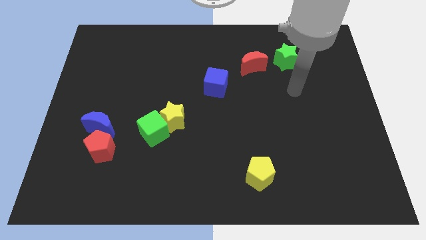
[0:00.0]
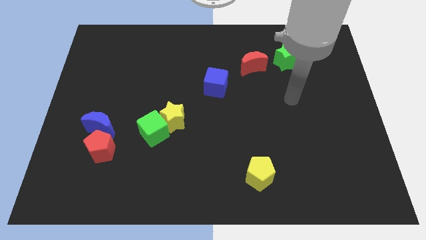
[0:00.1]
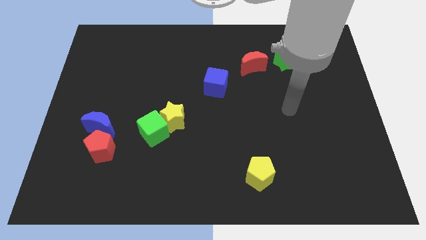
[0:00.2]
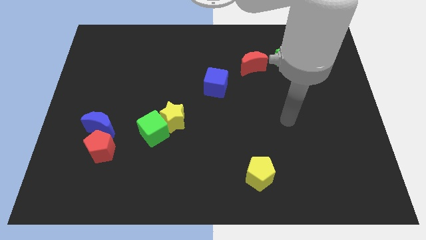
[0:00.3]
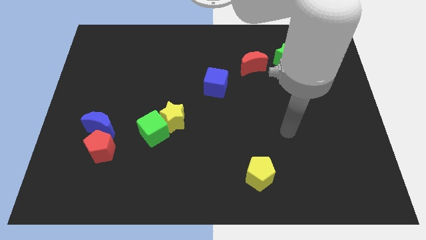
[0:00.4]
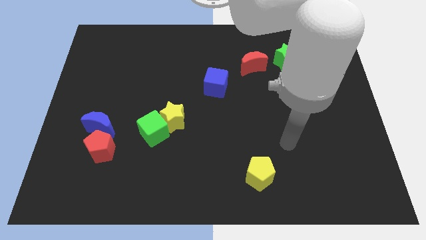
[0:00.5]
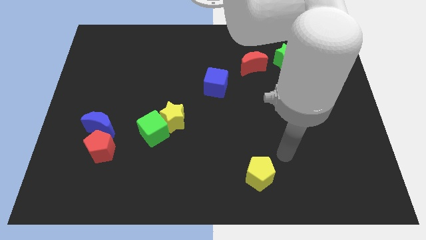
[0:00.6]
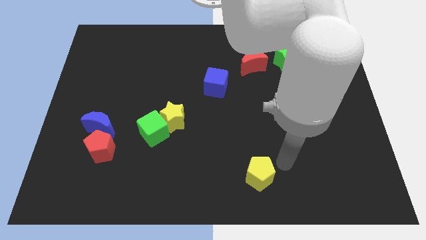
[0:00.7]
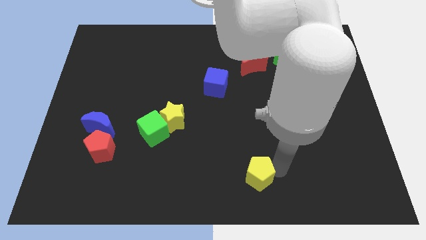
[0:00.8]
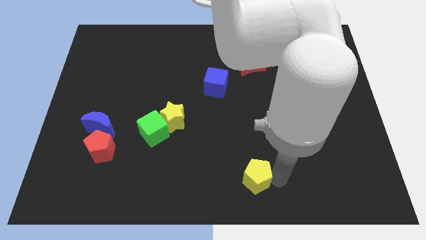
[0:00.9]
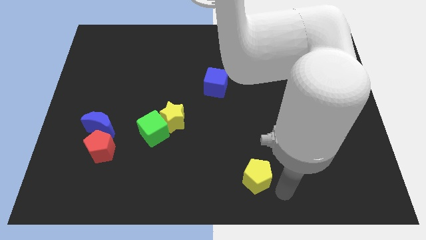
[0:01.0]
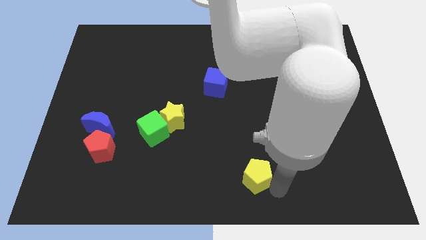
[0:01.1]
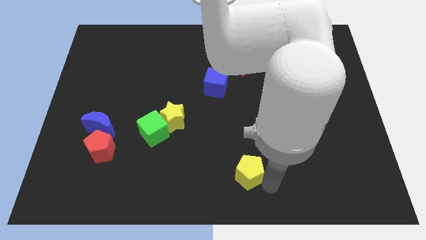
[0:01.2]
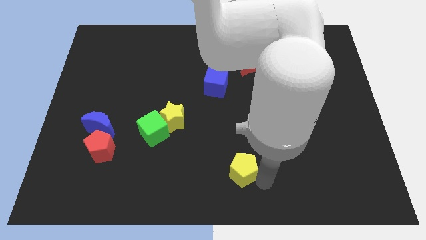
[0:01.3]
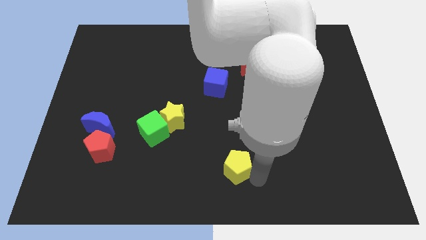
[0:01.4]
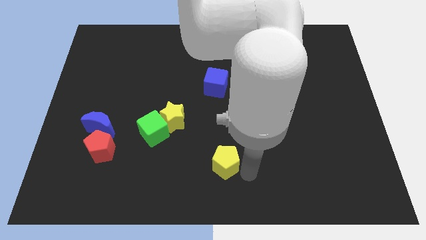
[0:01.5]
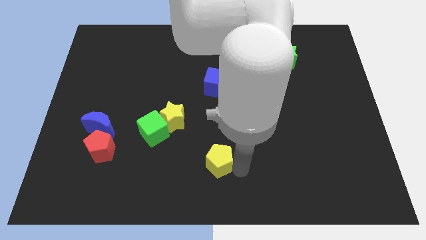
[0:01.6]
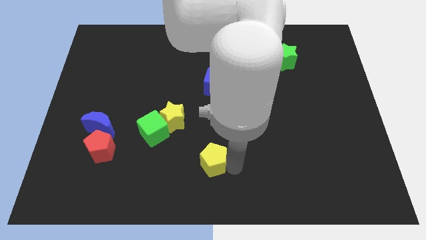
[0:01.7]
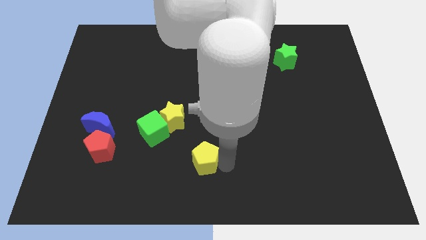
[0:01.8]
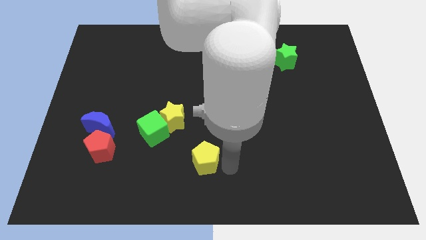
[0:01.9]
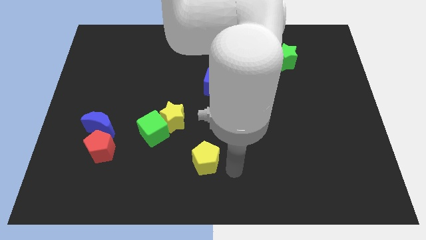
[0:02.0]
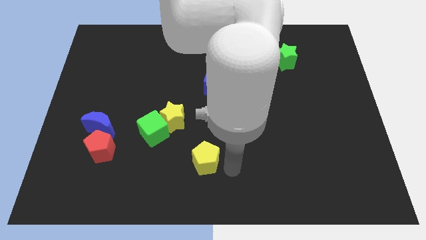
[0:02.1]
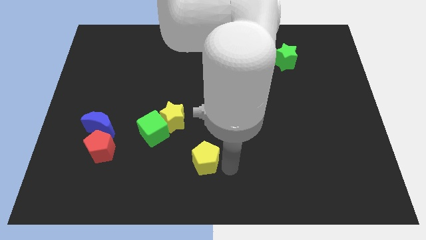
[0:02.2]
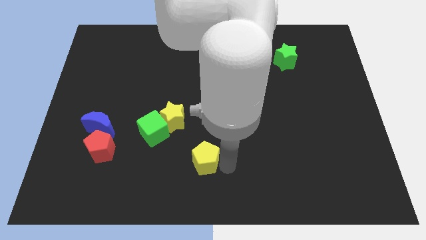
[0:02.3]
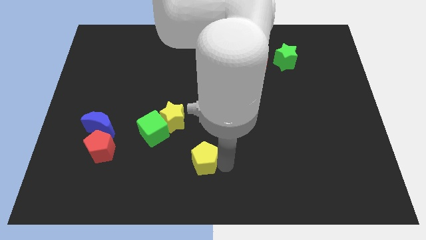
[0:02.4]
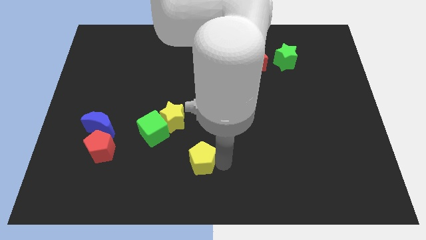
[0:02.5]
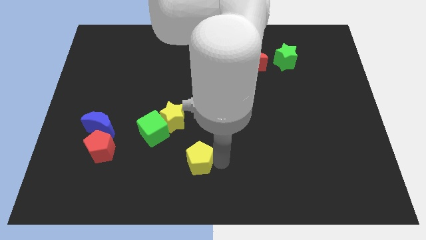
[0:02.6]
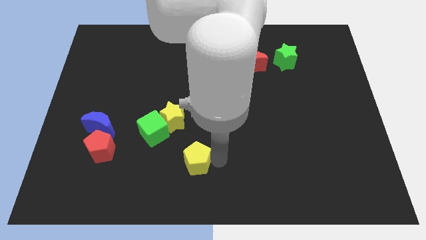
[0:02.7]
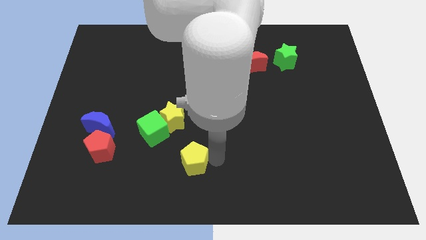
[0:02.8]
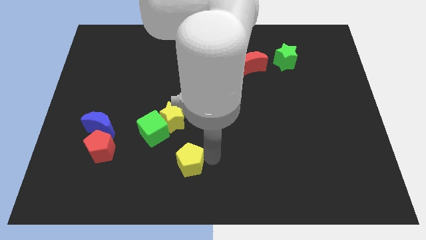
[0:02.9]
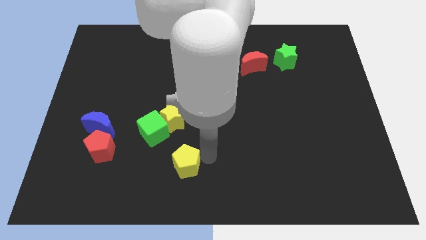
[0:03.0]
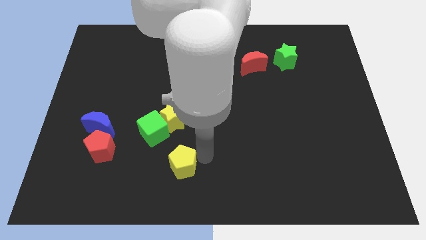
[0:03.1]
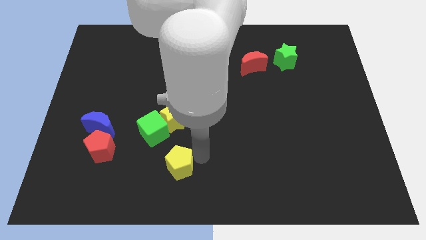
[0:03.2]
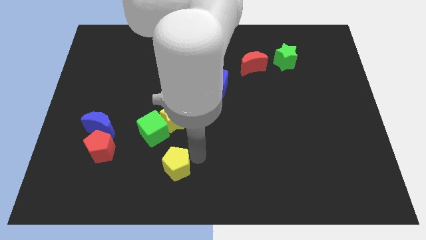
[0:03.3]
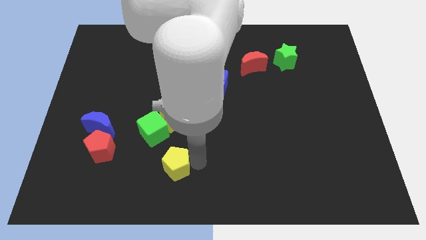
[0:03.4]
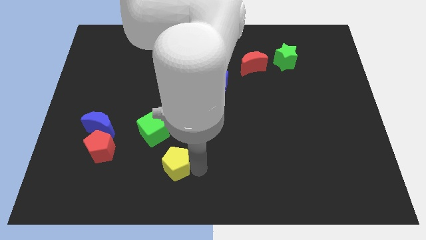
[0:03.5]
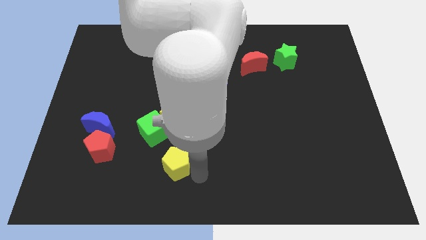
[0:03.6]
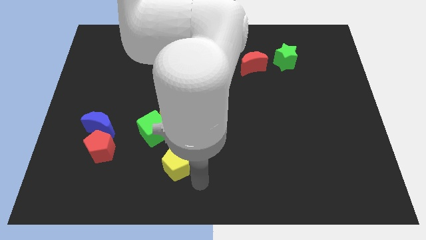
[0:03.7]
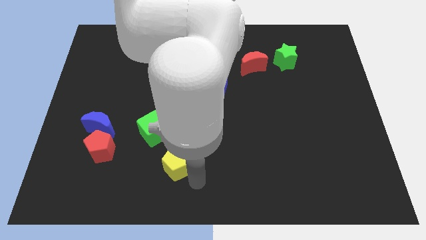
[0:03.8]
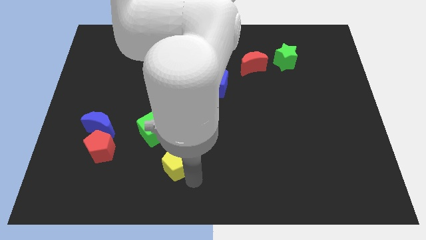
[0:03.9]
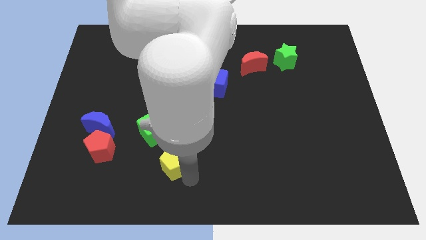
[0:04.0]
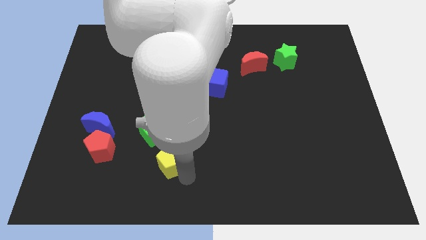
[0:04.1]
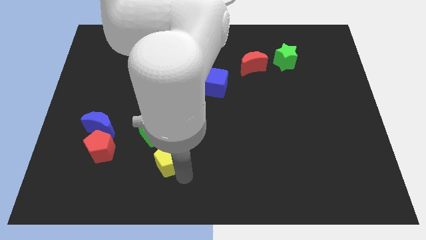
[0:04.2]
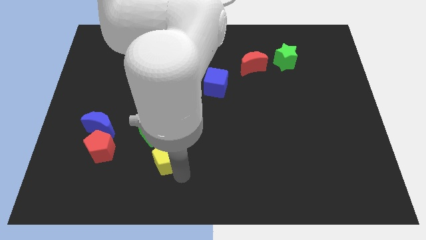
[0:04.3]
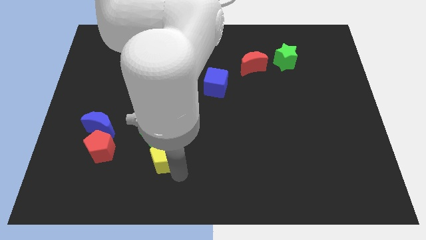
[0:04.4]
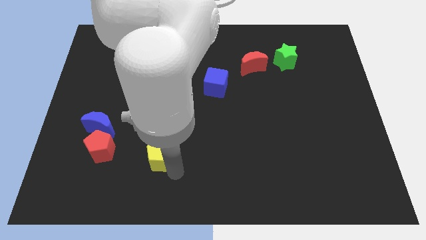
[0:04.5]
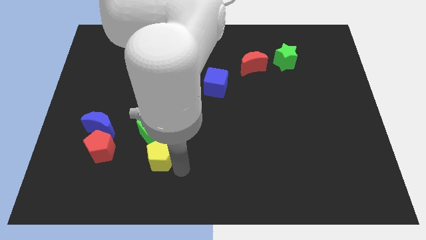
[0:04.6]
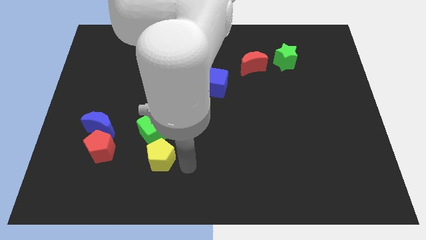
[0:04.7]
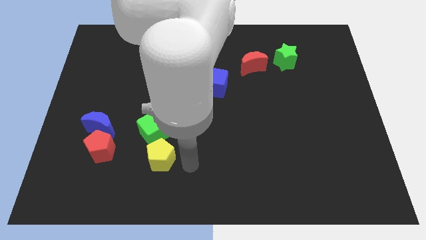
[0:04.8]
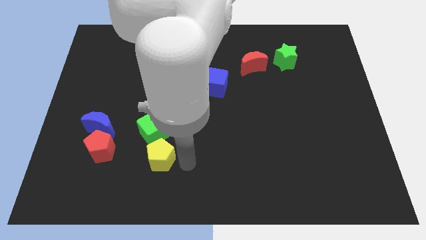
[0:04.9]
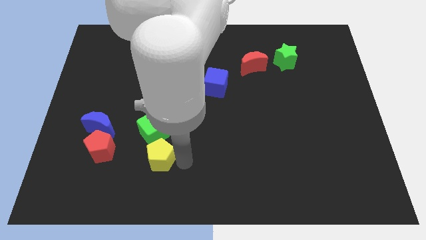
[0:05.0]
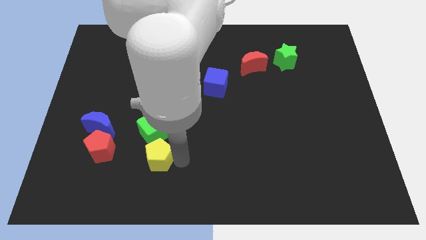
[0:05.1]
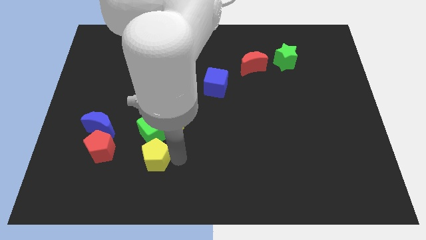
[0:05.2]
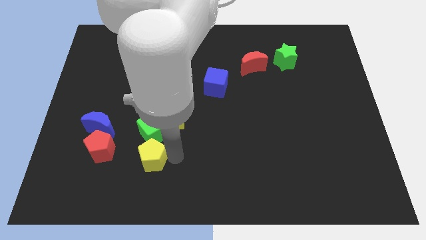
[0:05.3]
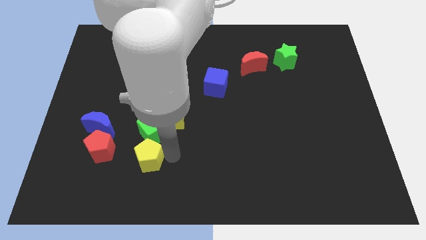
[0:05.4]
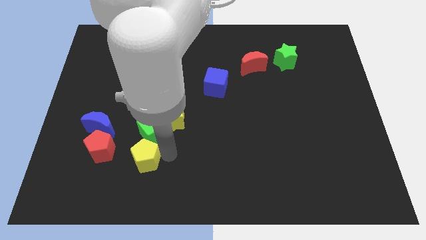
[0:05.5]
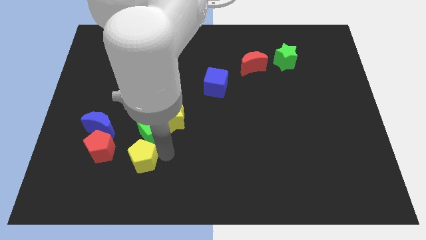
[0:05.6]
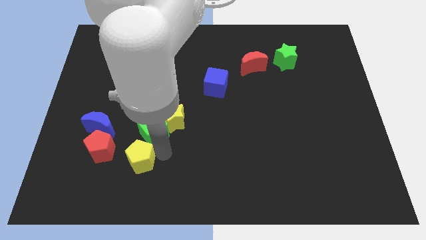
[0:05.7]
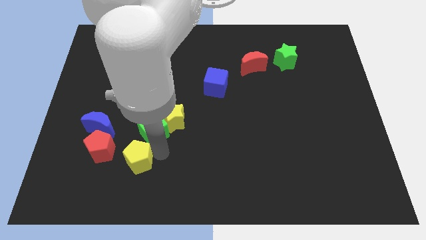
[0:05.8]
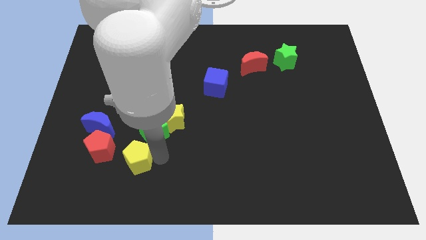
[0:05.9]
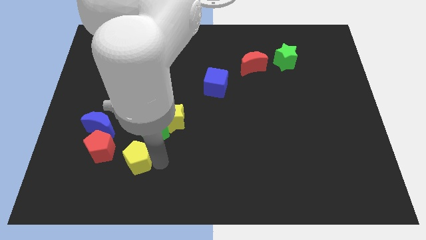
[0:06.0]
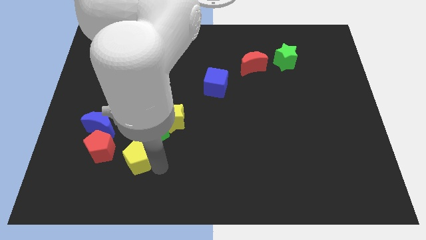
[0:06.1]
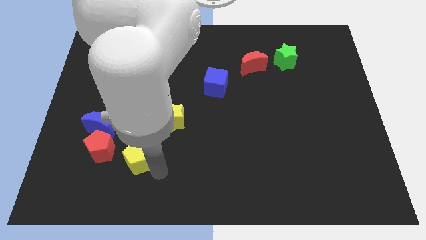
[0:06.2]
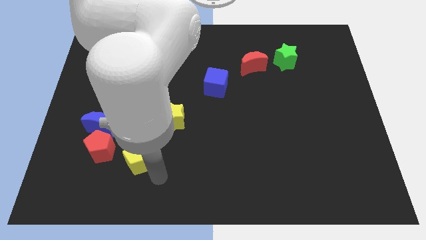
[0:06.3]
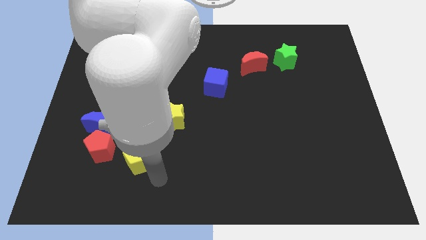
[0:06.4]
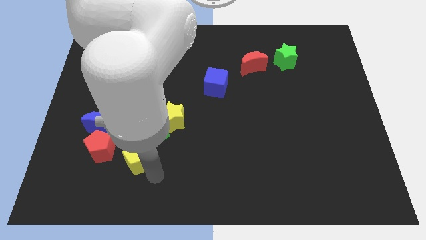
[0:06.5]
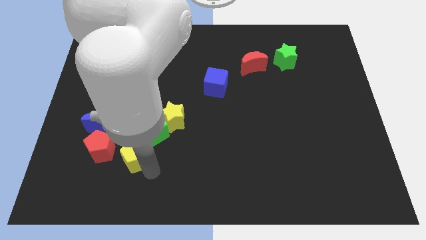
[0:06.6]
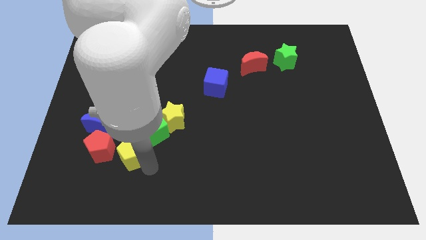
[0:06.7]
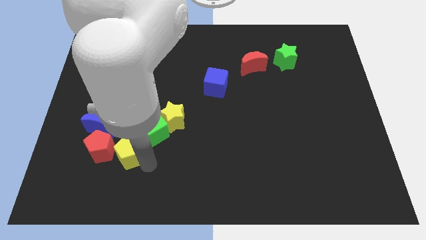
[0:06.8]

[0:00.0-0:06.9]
put the yellow pentagon to the red pentagon

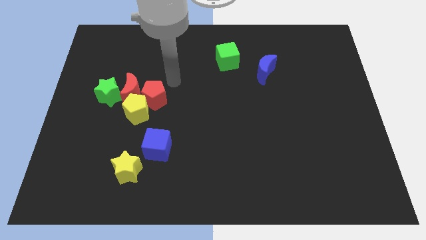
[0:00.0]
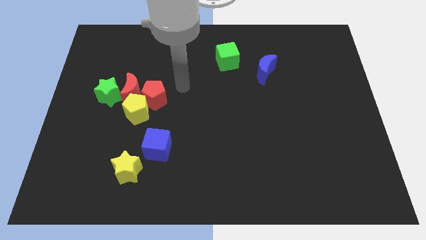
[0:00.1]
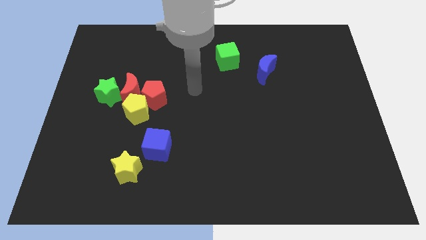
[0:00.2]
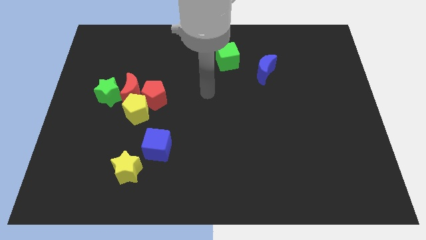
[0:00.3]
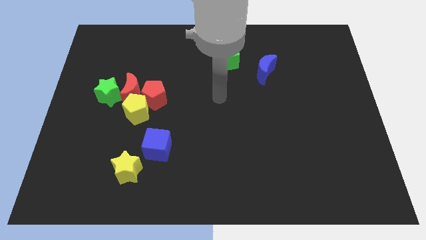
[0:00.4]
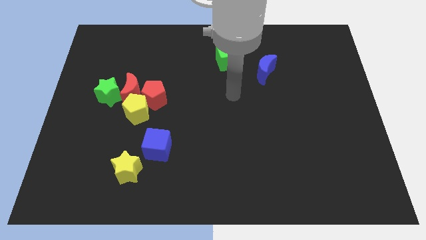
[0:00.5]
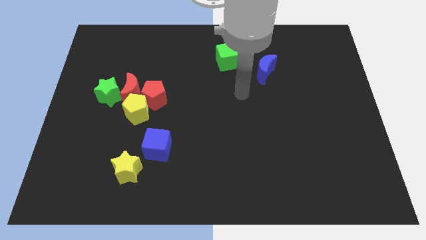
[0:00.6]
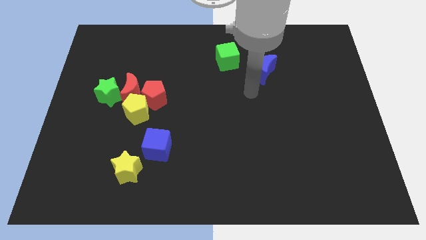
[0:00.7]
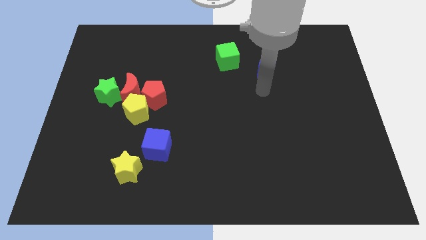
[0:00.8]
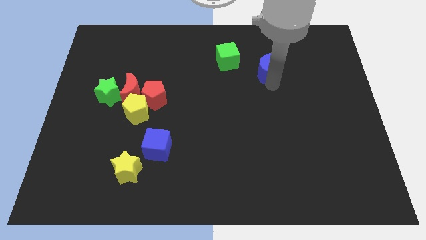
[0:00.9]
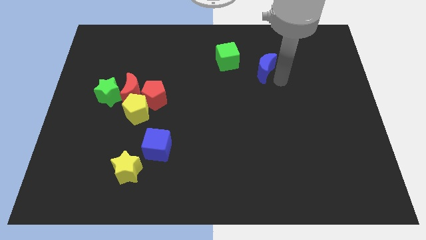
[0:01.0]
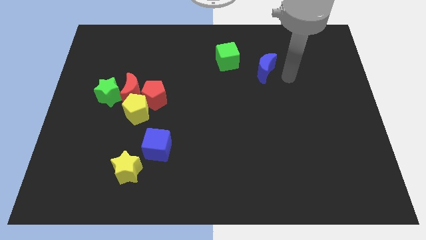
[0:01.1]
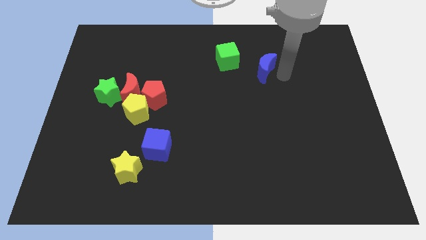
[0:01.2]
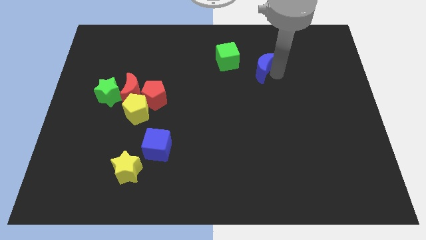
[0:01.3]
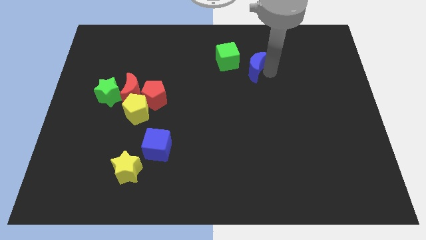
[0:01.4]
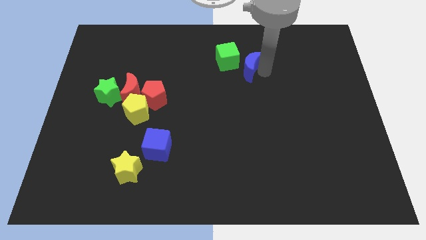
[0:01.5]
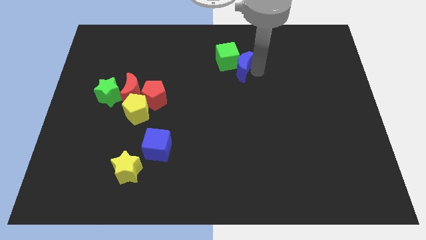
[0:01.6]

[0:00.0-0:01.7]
move the blue moon close to the green cube
